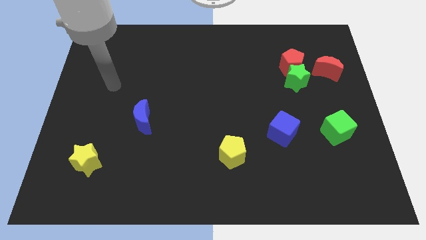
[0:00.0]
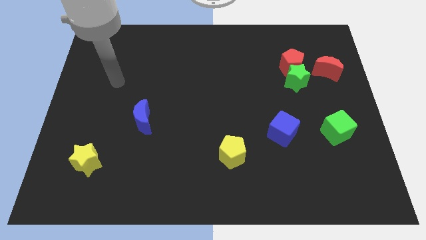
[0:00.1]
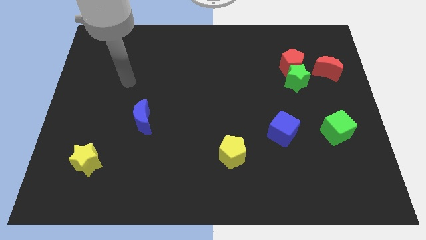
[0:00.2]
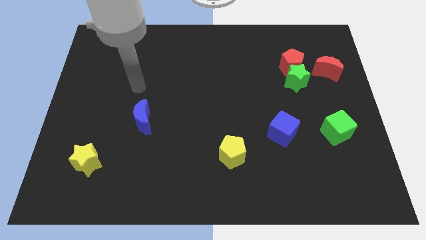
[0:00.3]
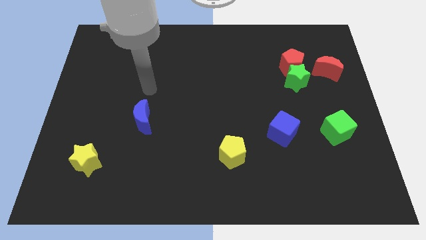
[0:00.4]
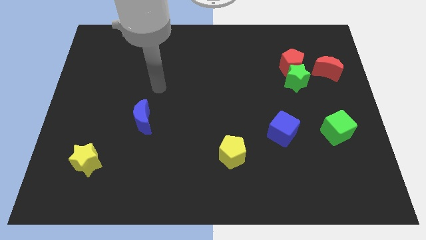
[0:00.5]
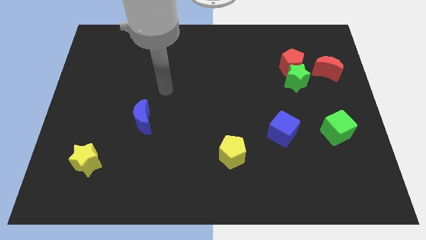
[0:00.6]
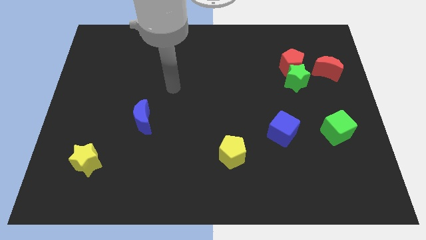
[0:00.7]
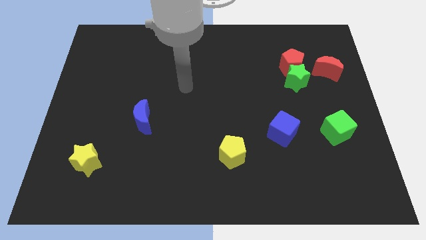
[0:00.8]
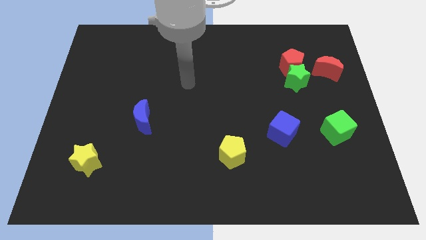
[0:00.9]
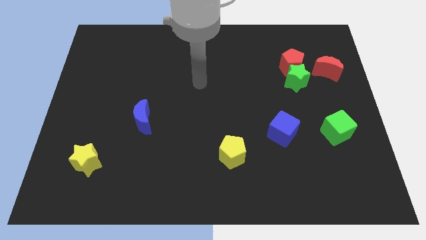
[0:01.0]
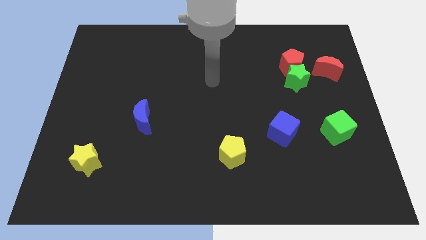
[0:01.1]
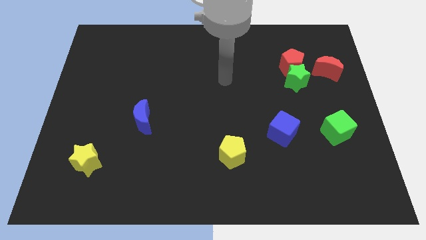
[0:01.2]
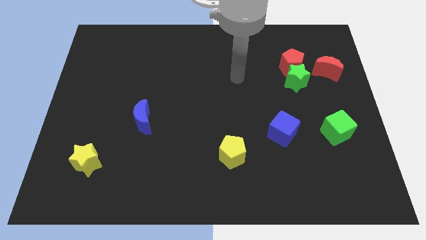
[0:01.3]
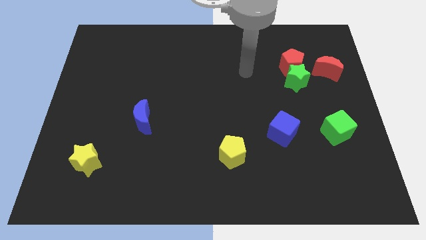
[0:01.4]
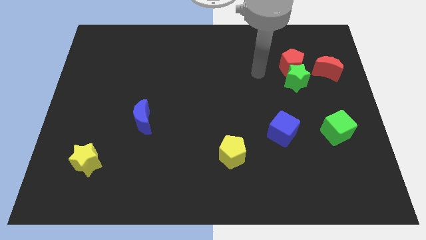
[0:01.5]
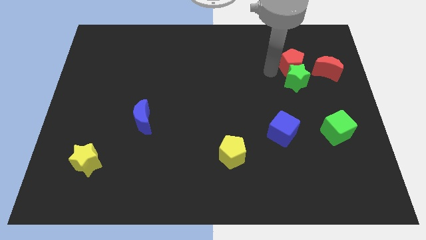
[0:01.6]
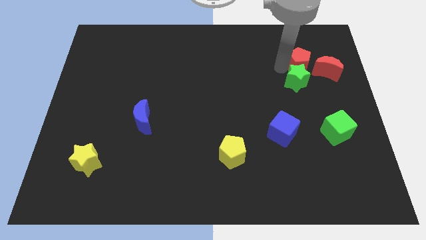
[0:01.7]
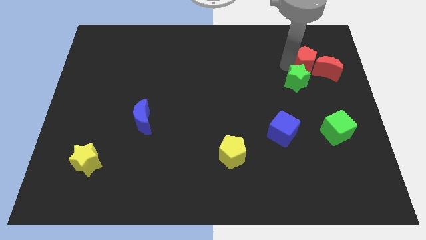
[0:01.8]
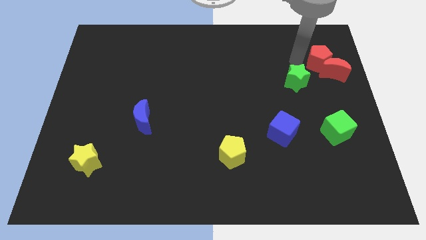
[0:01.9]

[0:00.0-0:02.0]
separate the green star from the red pentagon and red moon

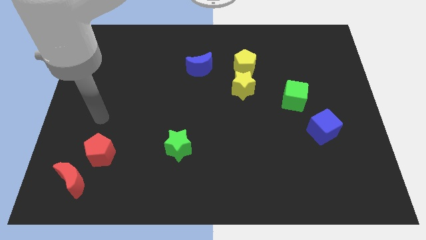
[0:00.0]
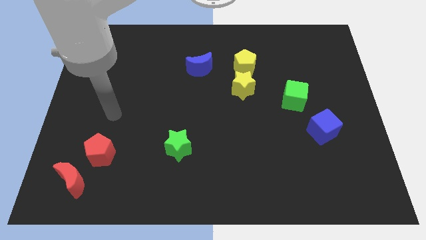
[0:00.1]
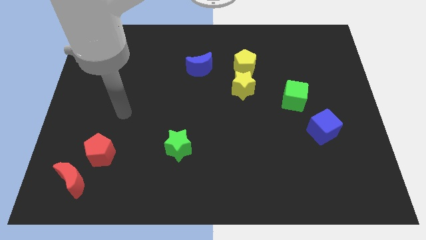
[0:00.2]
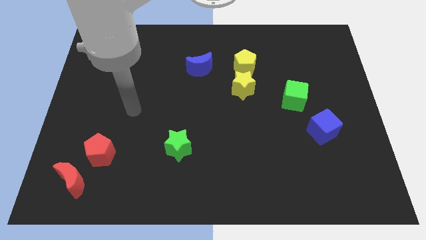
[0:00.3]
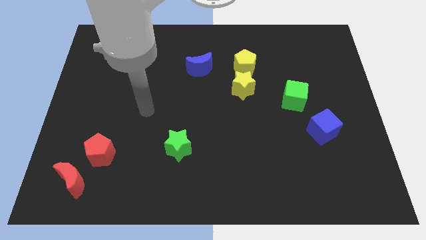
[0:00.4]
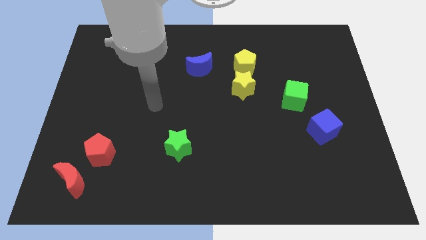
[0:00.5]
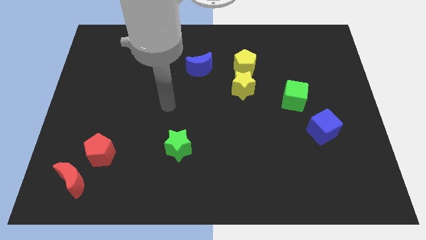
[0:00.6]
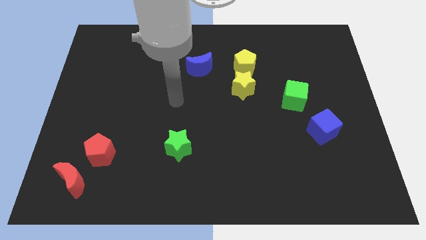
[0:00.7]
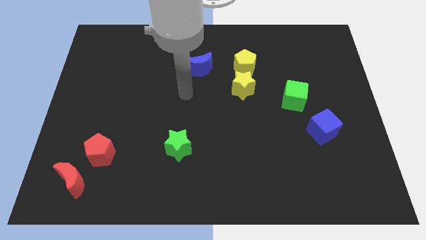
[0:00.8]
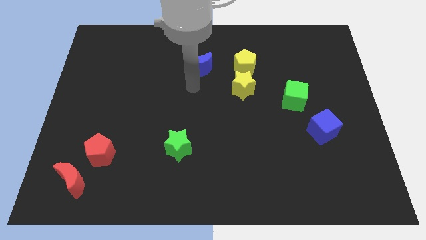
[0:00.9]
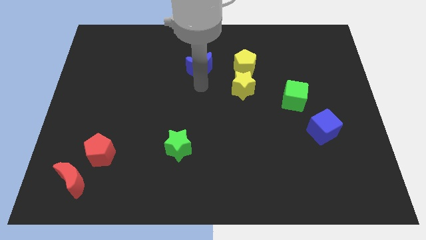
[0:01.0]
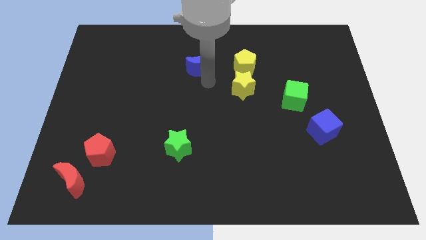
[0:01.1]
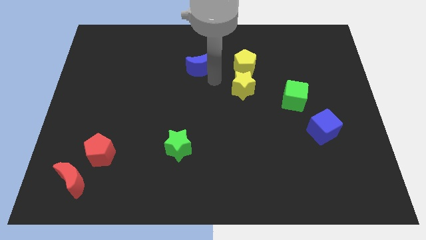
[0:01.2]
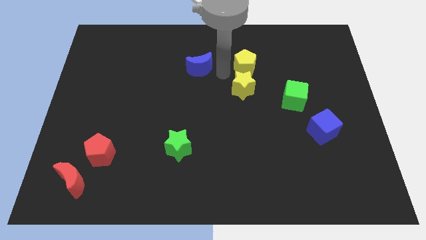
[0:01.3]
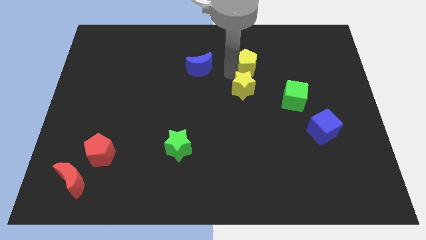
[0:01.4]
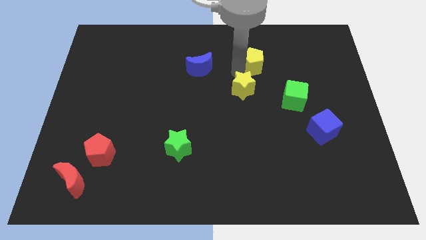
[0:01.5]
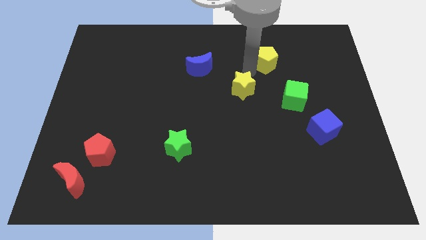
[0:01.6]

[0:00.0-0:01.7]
pull the yellow star apart from the yellow pentagon

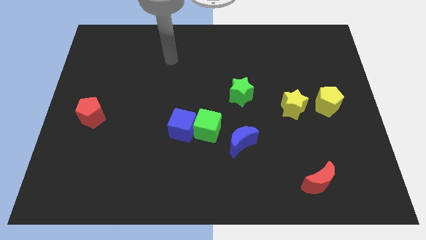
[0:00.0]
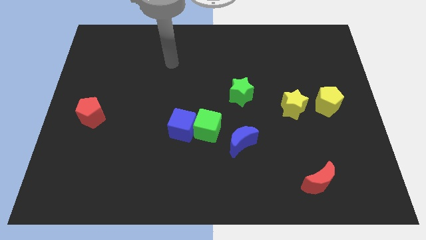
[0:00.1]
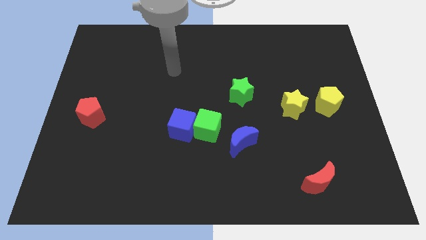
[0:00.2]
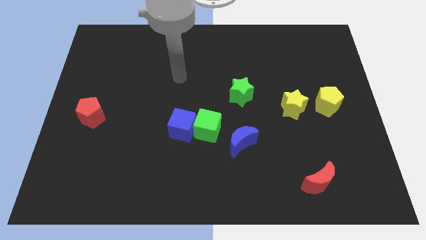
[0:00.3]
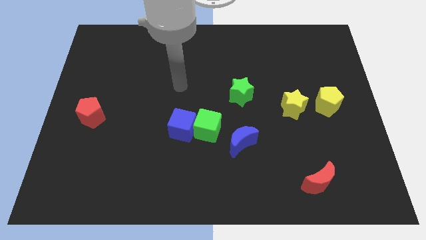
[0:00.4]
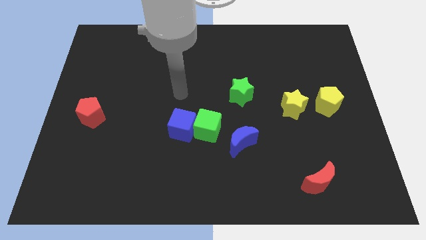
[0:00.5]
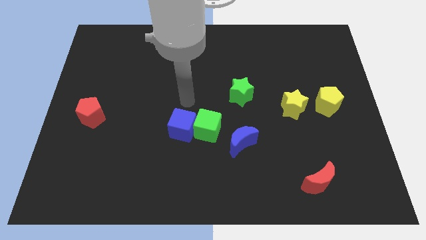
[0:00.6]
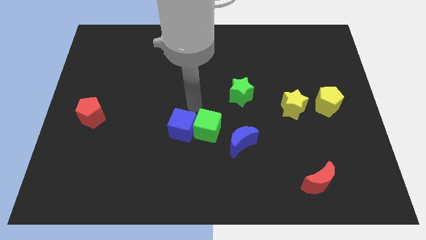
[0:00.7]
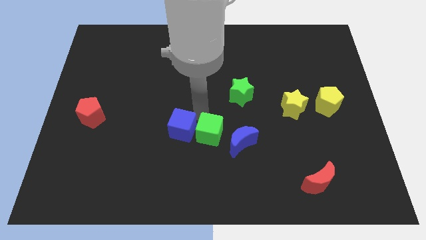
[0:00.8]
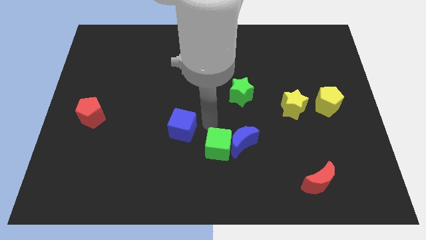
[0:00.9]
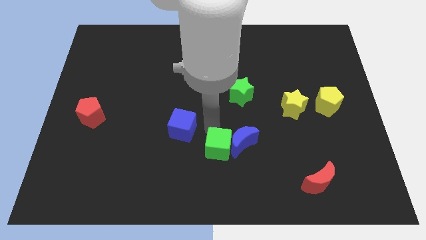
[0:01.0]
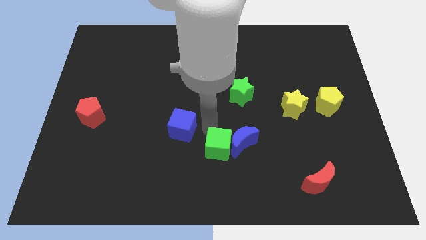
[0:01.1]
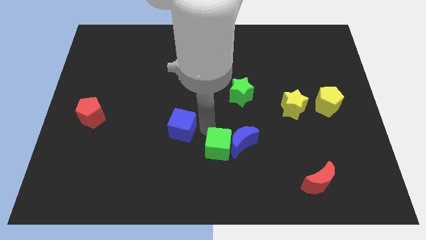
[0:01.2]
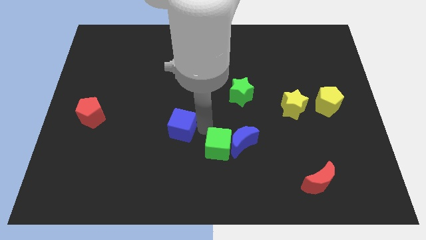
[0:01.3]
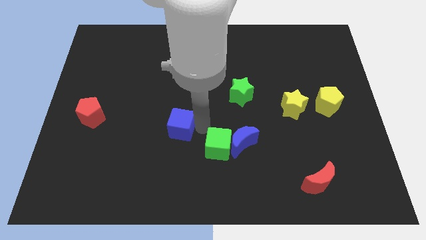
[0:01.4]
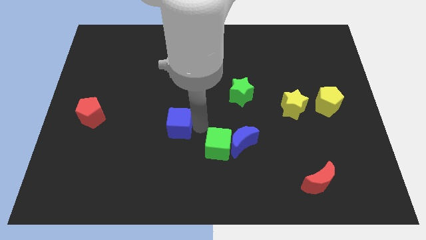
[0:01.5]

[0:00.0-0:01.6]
move the blue cube away from the green cube

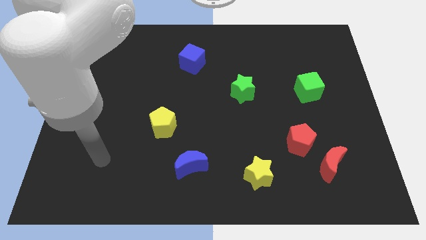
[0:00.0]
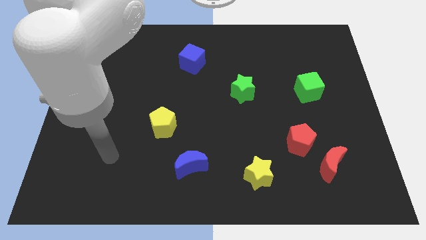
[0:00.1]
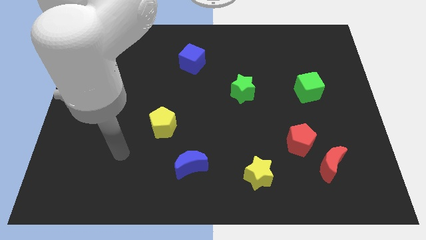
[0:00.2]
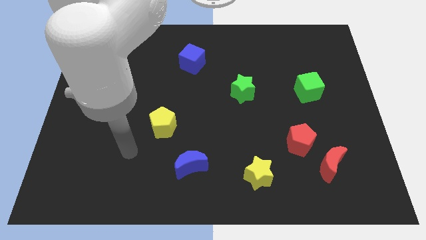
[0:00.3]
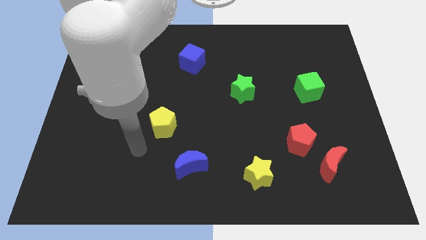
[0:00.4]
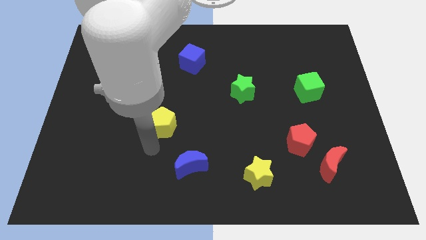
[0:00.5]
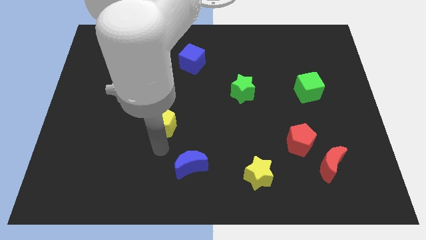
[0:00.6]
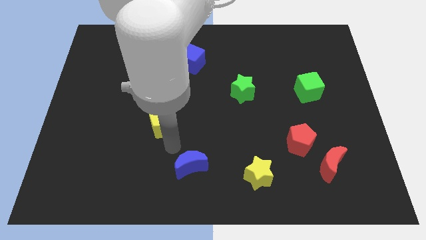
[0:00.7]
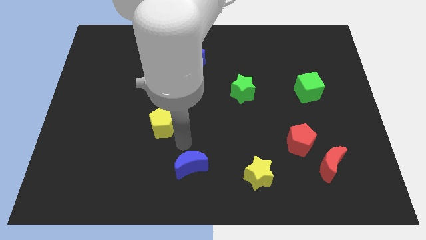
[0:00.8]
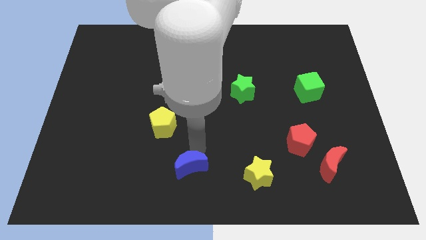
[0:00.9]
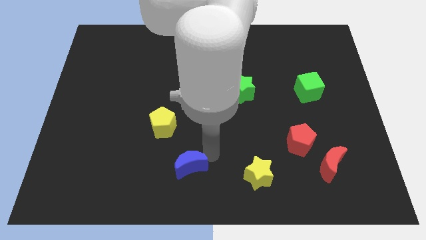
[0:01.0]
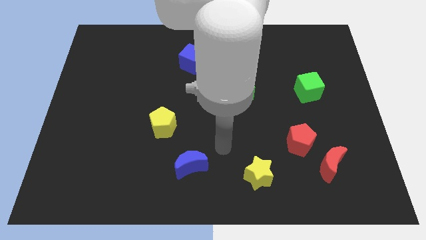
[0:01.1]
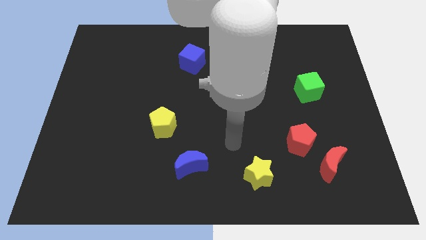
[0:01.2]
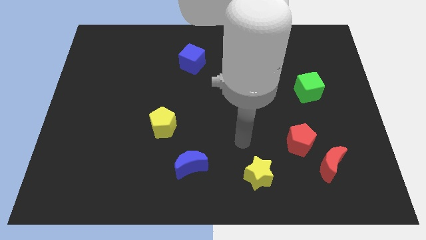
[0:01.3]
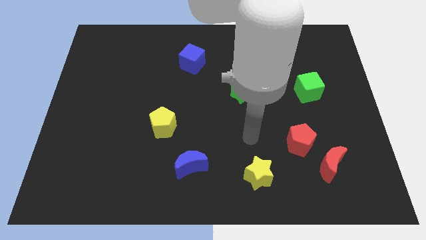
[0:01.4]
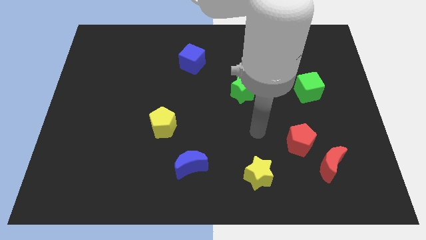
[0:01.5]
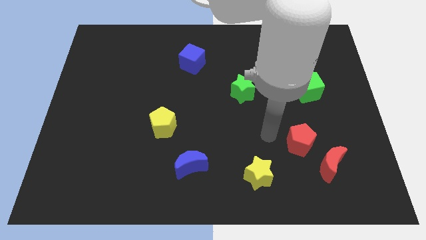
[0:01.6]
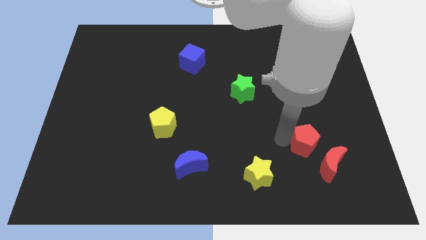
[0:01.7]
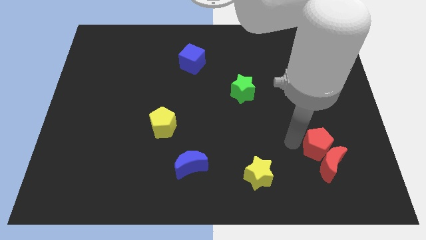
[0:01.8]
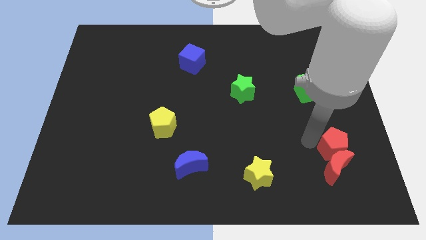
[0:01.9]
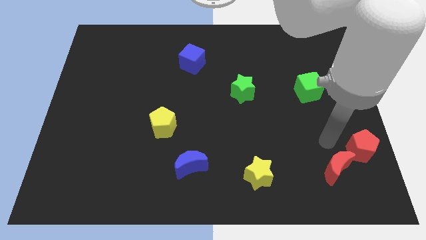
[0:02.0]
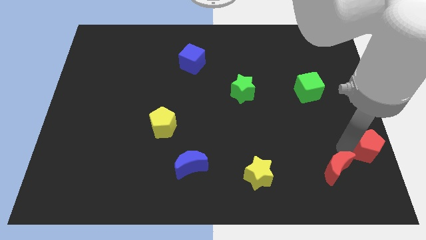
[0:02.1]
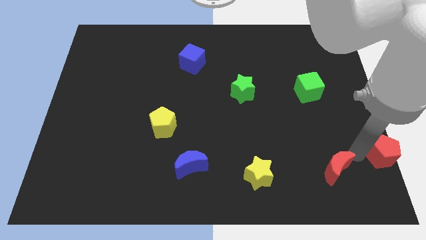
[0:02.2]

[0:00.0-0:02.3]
move the red moon away from the red pentagon

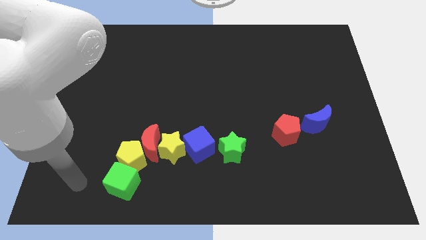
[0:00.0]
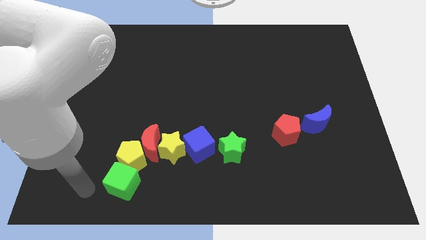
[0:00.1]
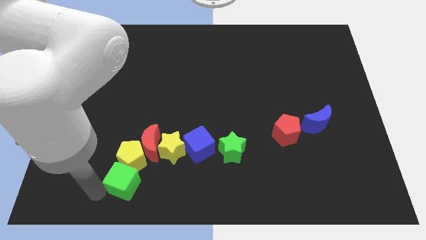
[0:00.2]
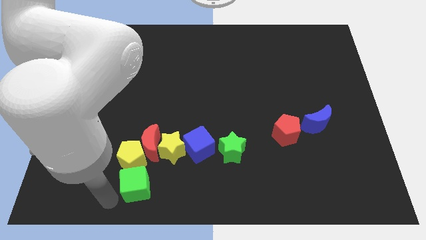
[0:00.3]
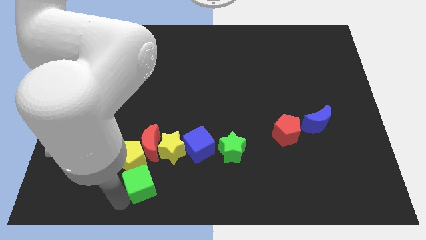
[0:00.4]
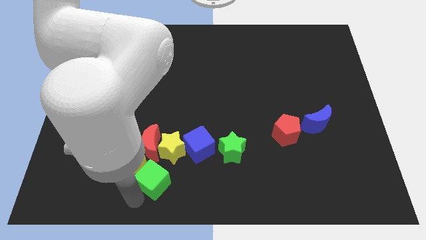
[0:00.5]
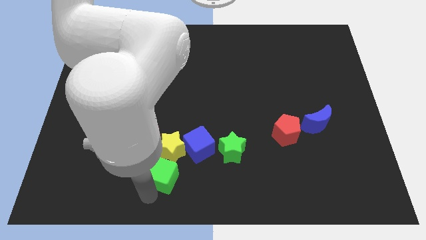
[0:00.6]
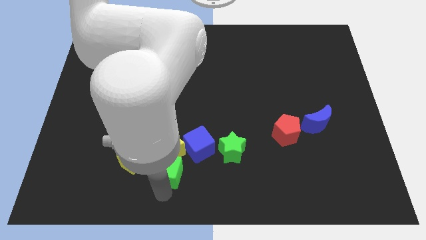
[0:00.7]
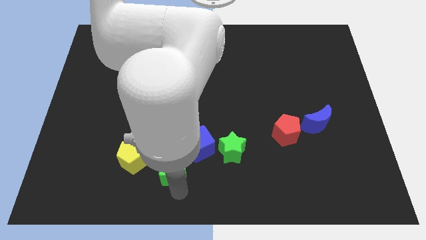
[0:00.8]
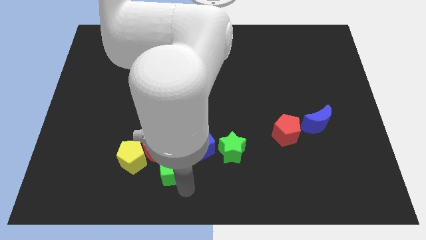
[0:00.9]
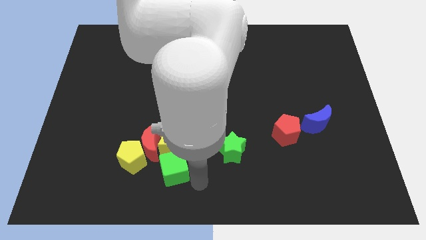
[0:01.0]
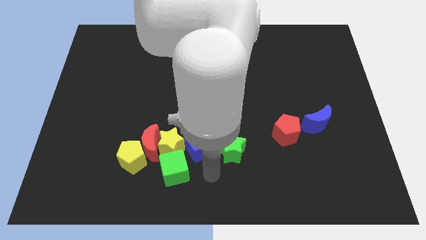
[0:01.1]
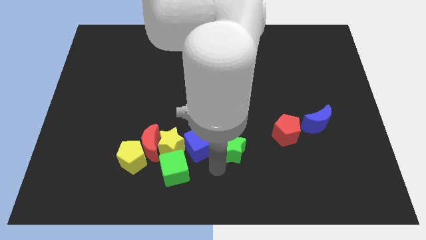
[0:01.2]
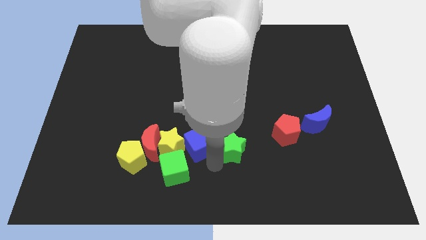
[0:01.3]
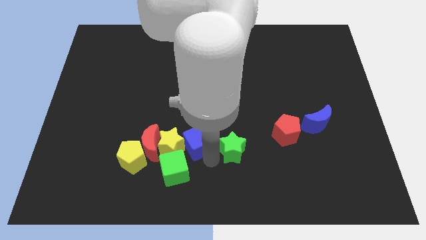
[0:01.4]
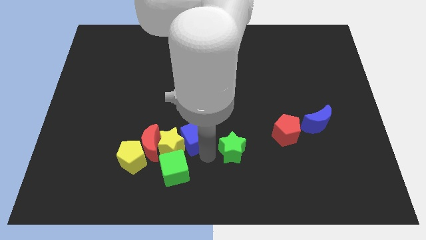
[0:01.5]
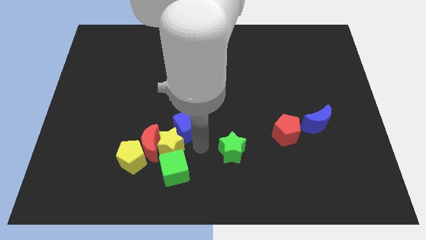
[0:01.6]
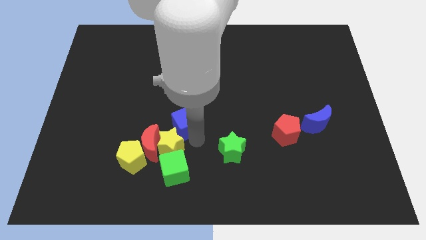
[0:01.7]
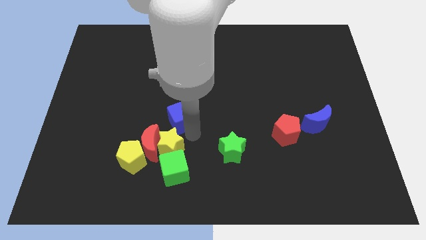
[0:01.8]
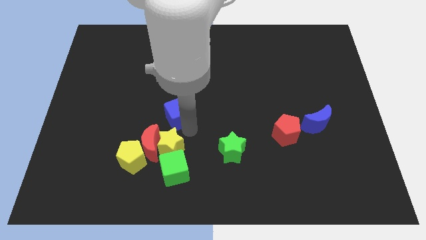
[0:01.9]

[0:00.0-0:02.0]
move the blue cube away from the yellow star and green star
